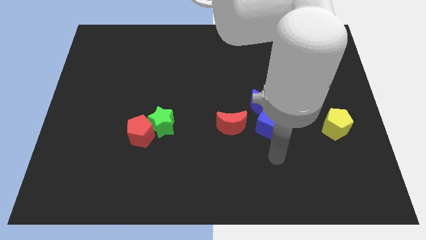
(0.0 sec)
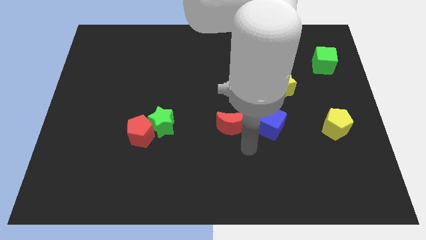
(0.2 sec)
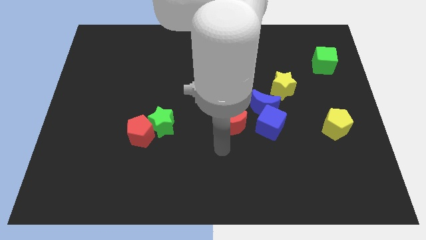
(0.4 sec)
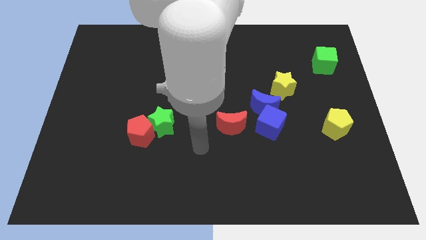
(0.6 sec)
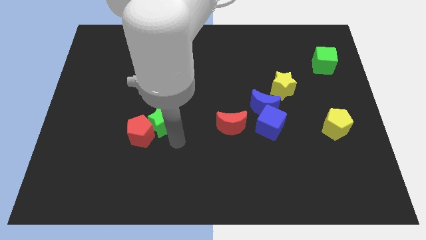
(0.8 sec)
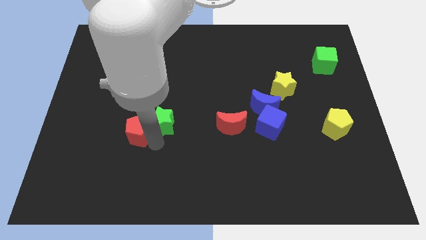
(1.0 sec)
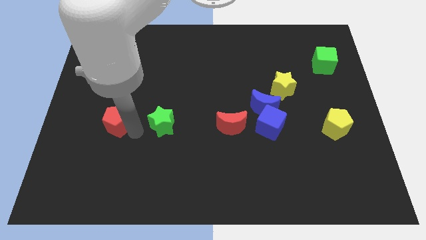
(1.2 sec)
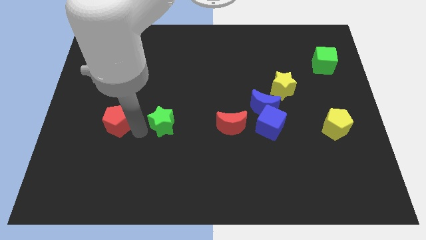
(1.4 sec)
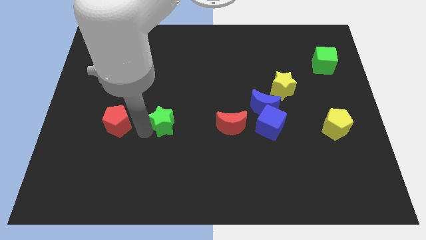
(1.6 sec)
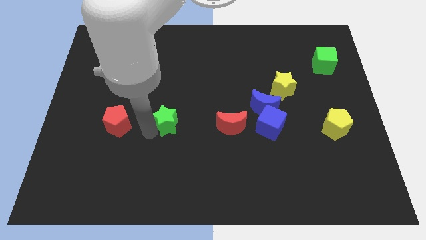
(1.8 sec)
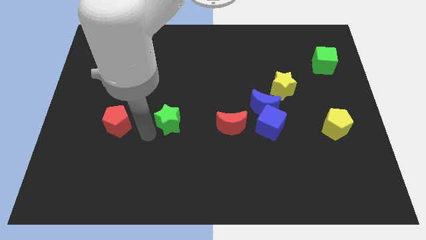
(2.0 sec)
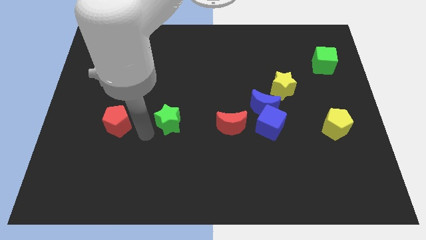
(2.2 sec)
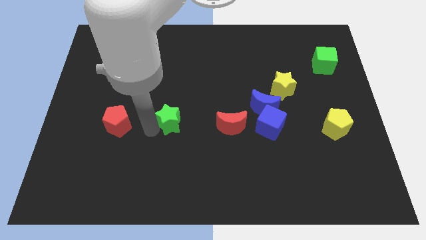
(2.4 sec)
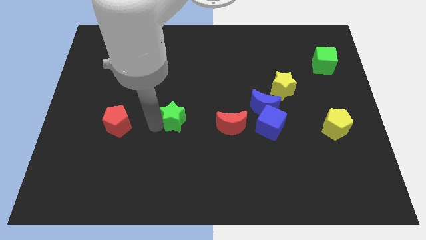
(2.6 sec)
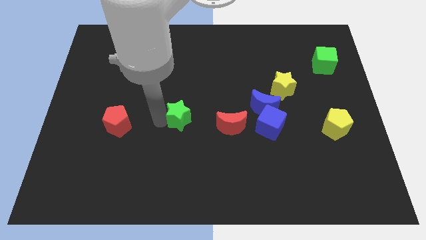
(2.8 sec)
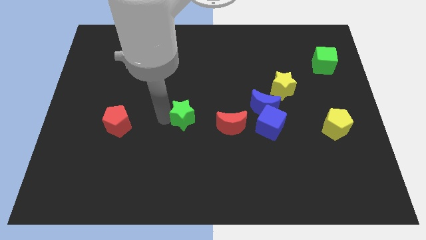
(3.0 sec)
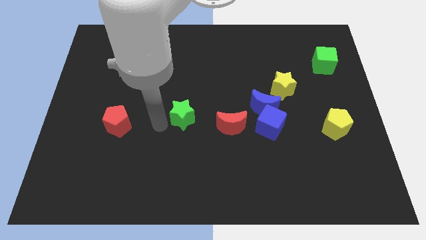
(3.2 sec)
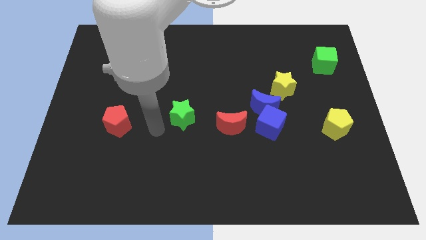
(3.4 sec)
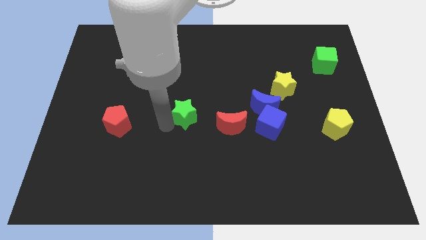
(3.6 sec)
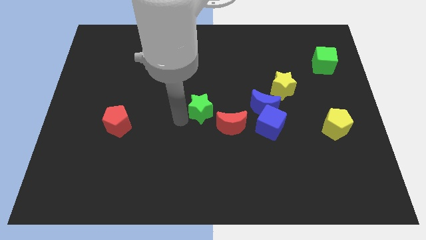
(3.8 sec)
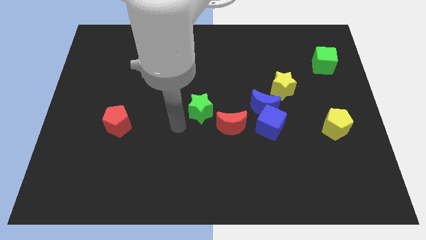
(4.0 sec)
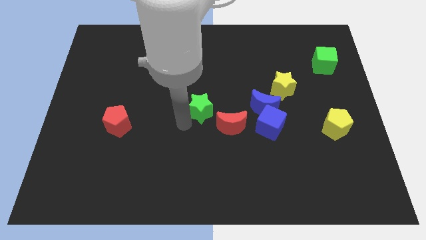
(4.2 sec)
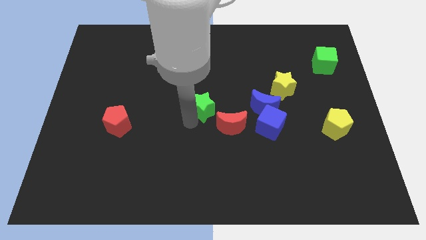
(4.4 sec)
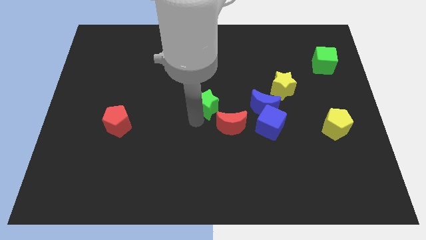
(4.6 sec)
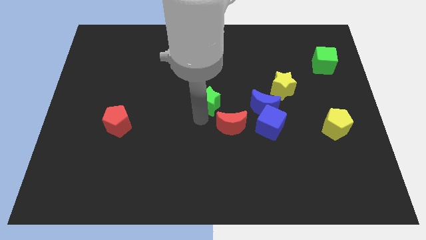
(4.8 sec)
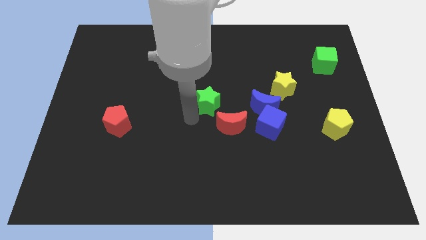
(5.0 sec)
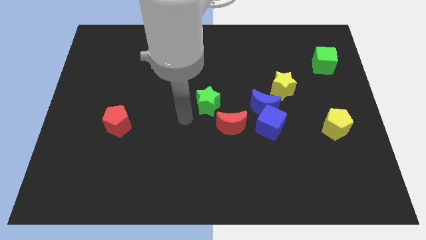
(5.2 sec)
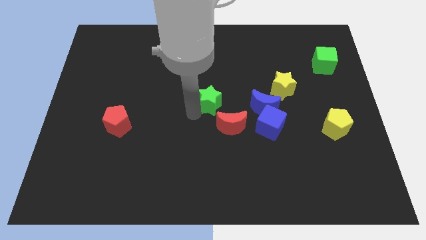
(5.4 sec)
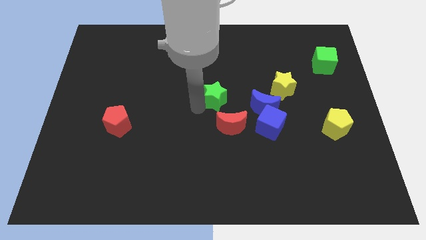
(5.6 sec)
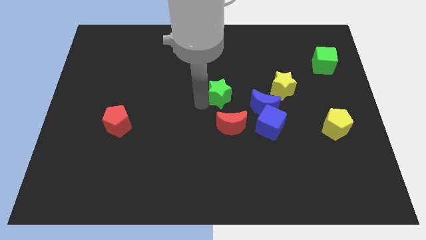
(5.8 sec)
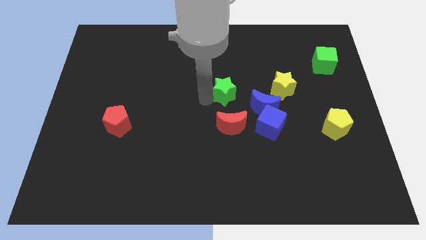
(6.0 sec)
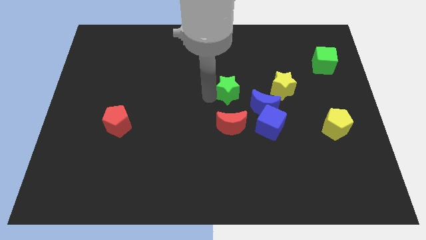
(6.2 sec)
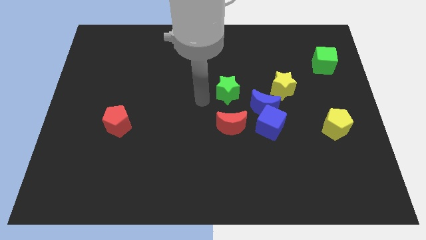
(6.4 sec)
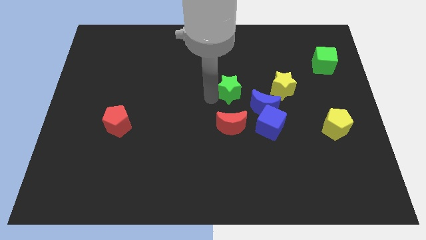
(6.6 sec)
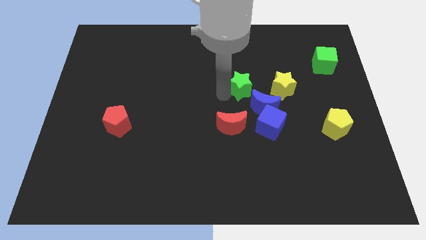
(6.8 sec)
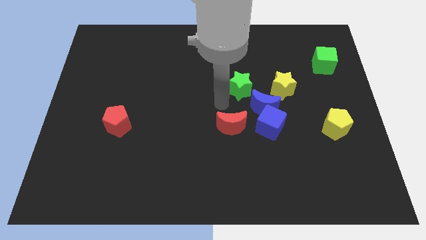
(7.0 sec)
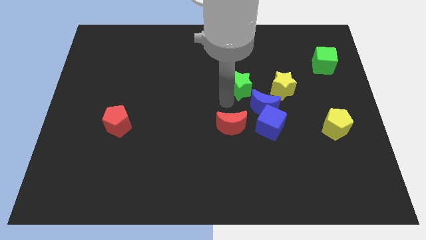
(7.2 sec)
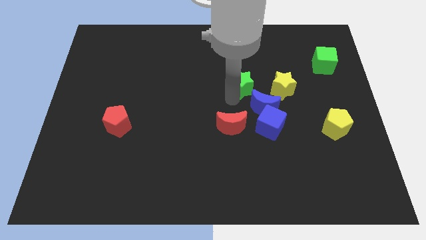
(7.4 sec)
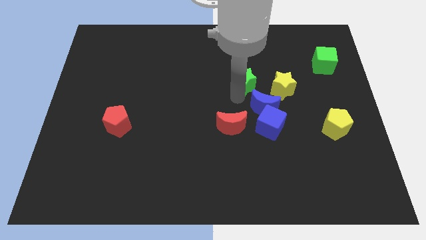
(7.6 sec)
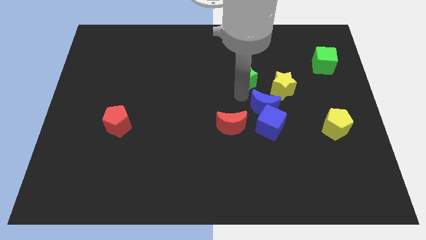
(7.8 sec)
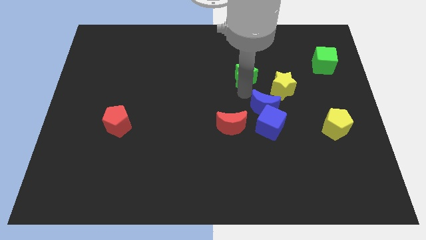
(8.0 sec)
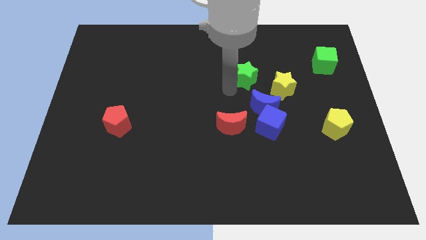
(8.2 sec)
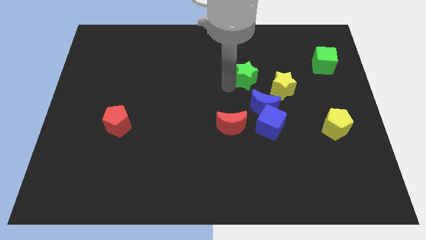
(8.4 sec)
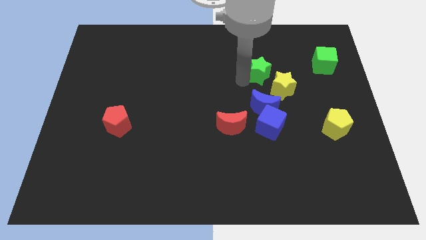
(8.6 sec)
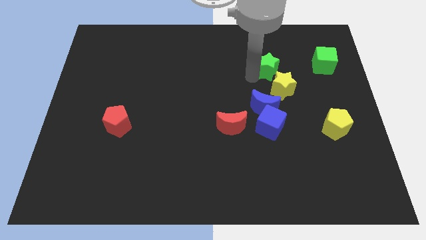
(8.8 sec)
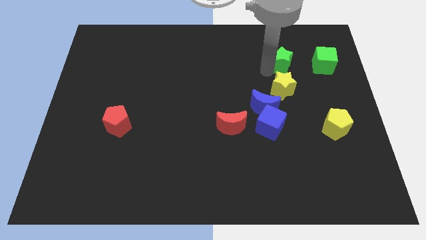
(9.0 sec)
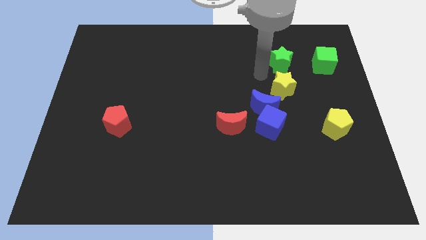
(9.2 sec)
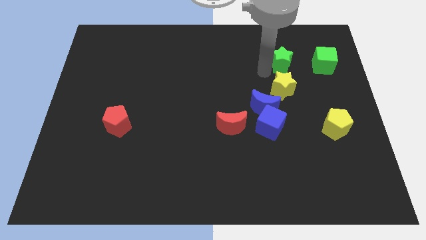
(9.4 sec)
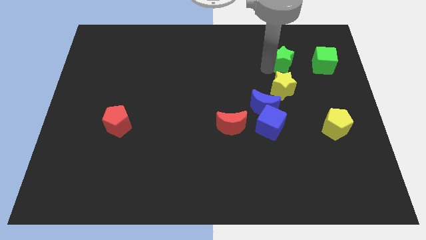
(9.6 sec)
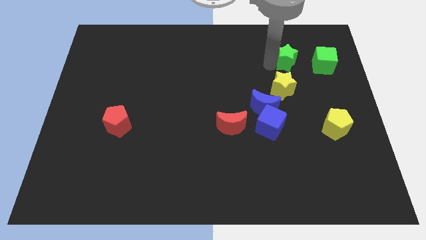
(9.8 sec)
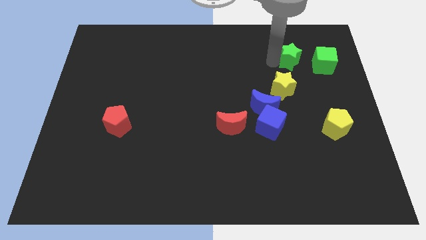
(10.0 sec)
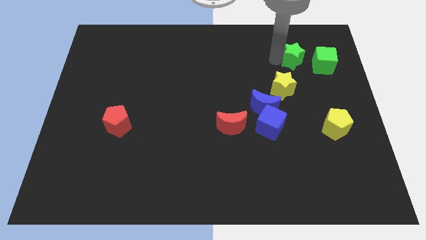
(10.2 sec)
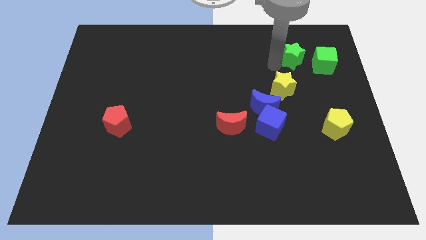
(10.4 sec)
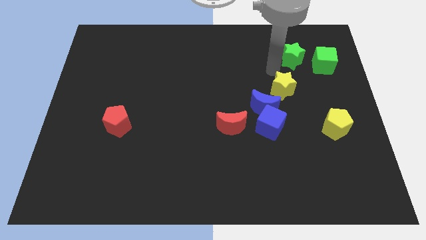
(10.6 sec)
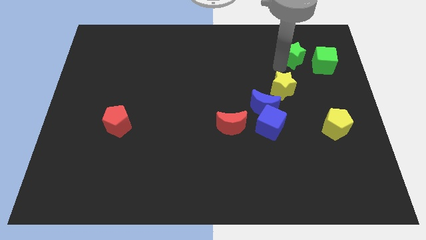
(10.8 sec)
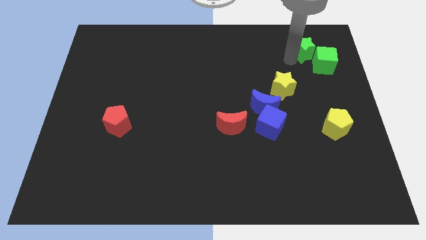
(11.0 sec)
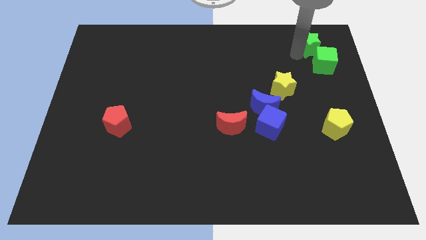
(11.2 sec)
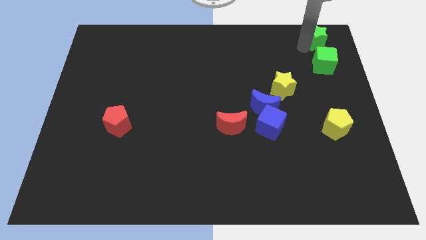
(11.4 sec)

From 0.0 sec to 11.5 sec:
put the green star to the top right corner
